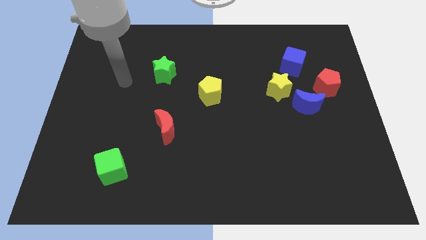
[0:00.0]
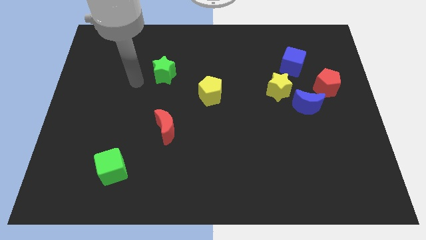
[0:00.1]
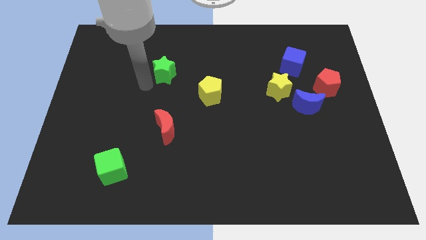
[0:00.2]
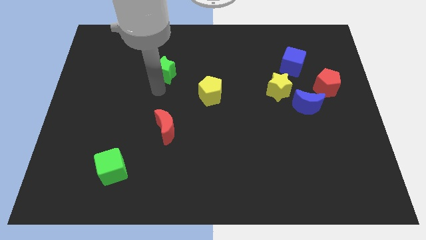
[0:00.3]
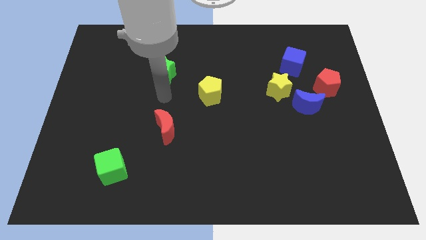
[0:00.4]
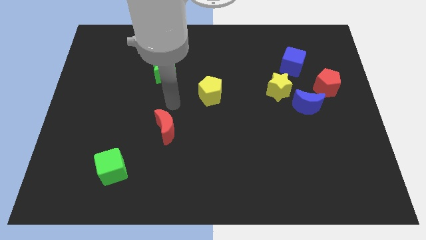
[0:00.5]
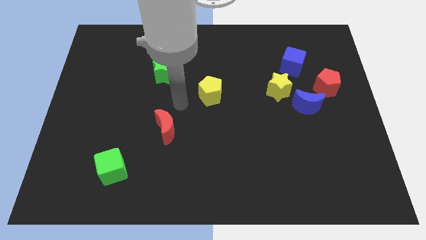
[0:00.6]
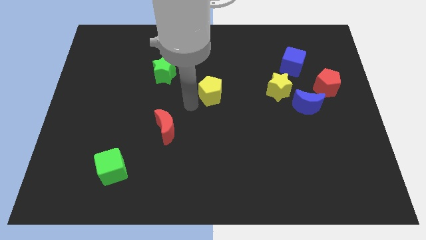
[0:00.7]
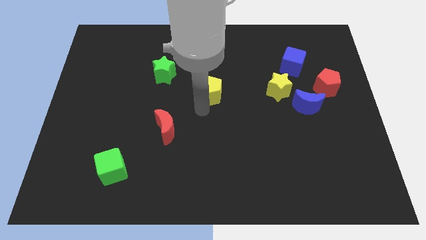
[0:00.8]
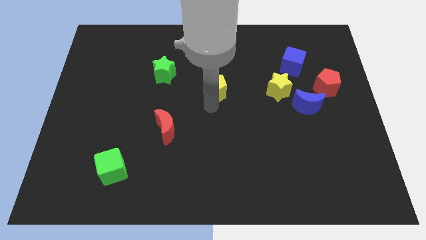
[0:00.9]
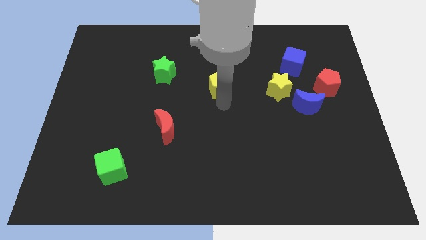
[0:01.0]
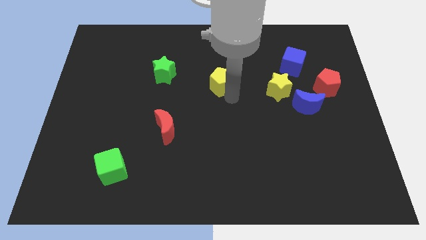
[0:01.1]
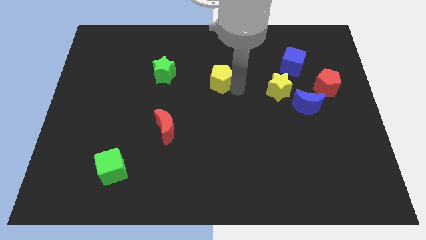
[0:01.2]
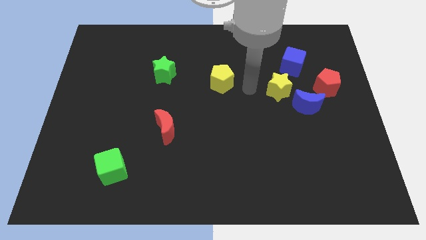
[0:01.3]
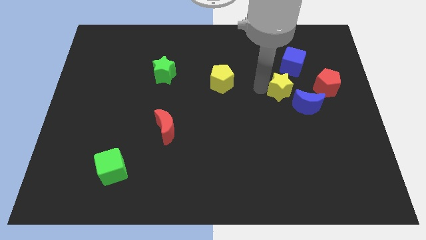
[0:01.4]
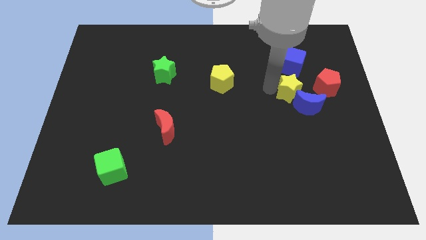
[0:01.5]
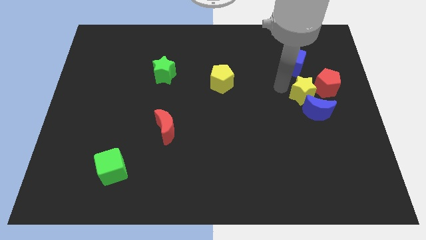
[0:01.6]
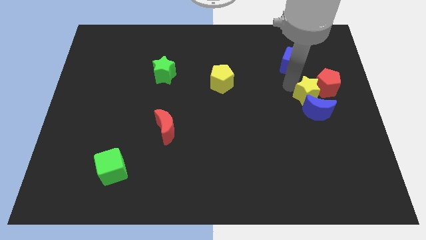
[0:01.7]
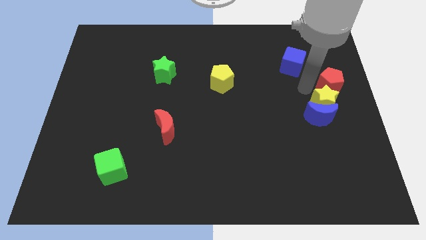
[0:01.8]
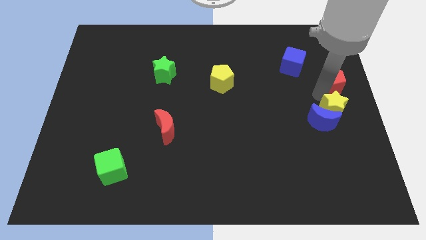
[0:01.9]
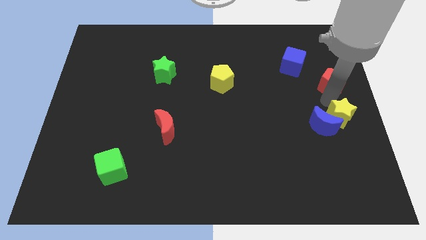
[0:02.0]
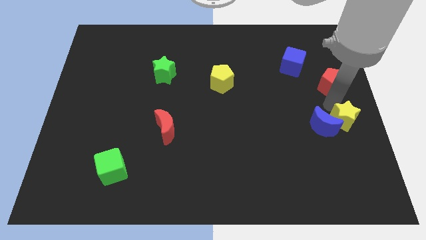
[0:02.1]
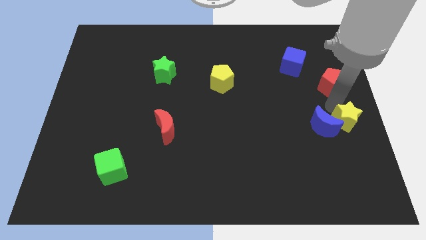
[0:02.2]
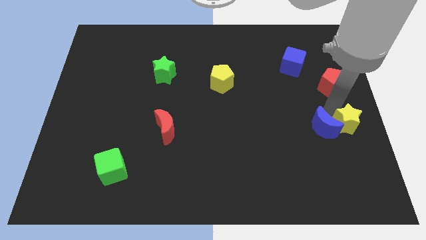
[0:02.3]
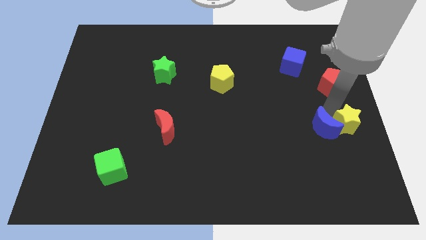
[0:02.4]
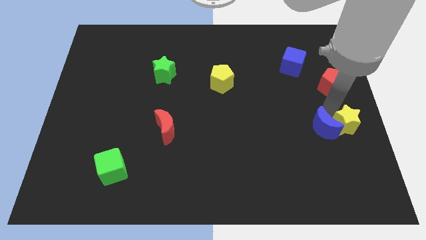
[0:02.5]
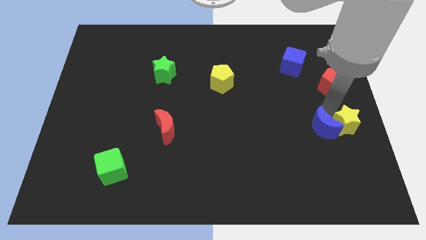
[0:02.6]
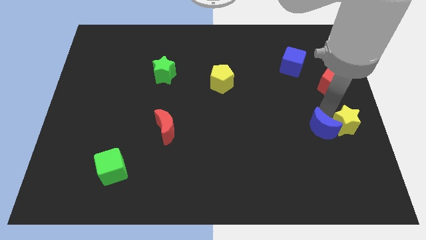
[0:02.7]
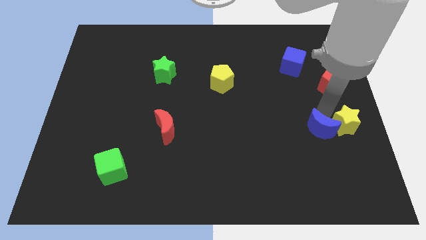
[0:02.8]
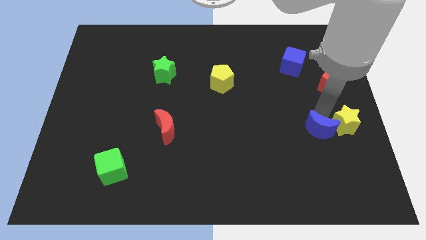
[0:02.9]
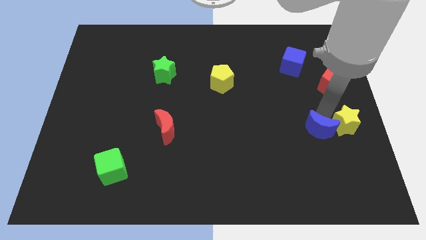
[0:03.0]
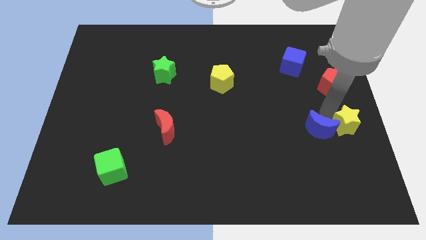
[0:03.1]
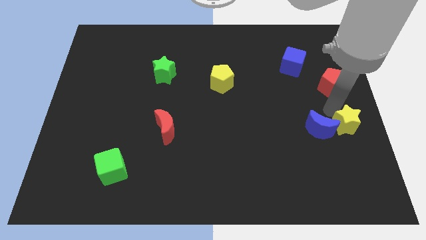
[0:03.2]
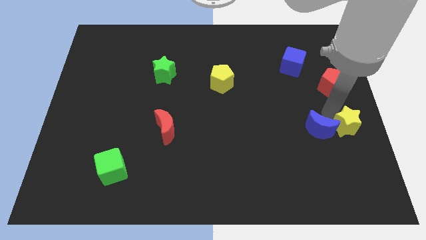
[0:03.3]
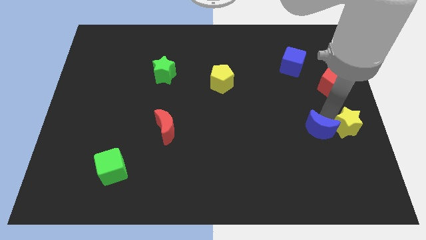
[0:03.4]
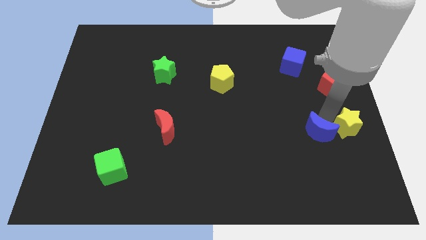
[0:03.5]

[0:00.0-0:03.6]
pull the blue moon apart from the yellow star and red pentagon

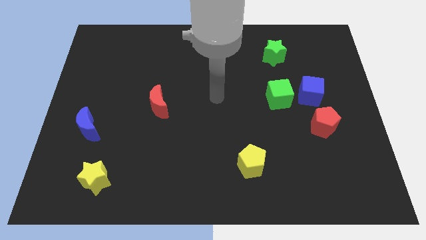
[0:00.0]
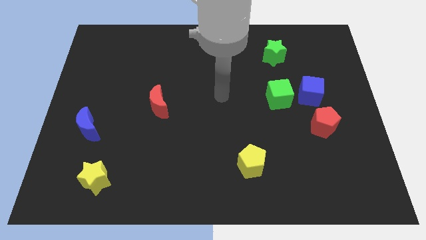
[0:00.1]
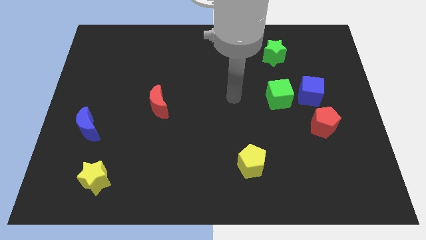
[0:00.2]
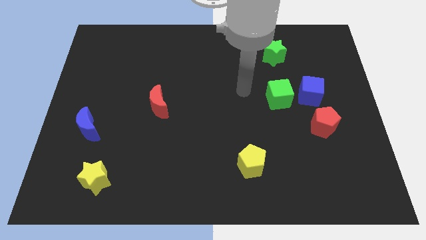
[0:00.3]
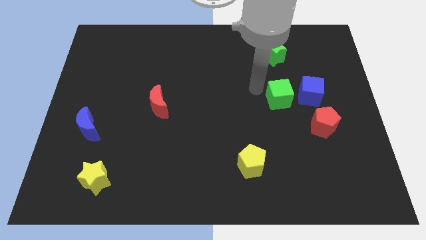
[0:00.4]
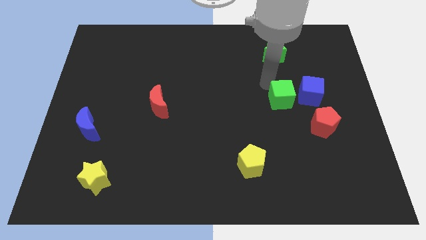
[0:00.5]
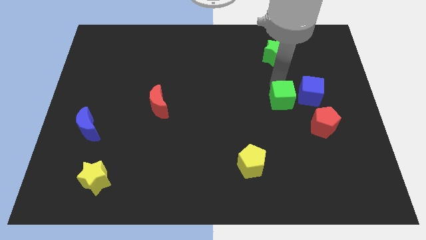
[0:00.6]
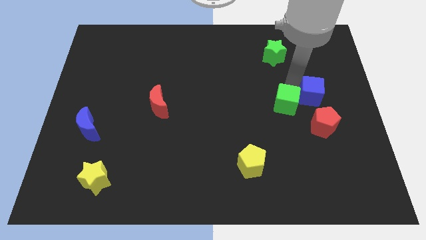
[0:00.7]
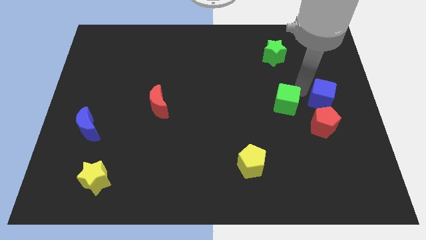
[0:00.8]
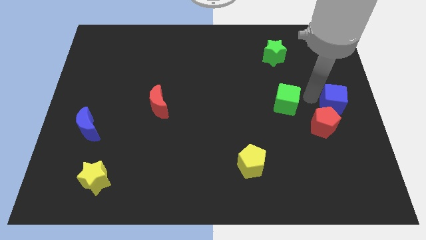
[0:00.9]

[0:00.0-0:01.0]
pull the green cube apart from the blue cube

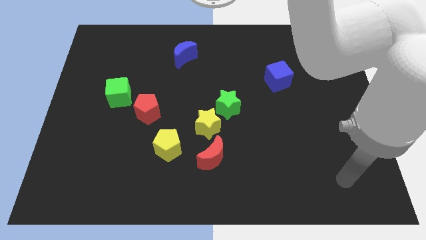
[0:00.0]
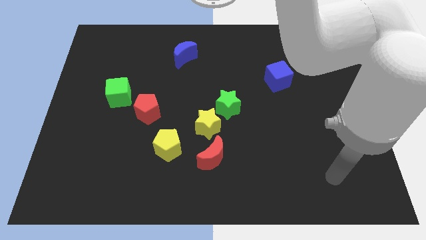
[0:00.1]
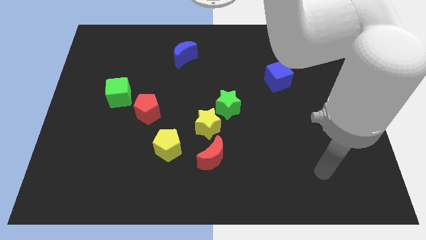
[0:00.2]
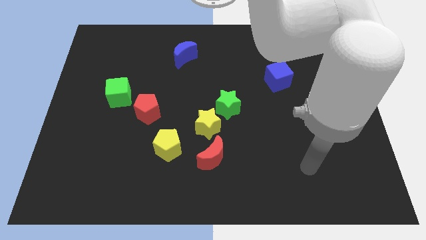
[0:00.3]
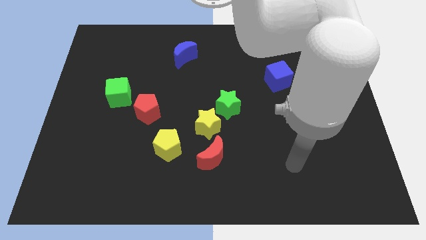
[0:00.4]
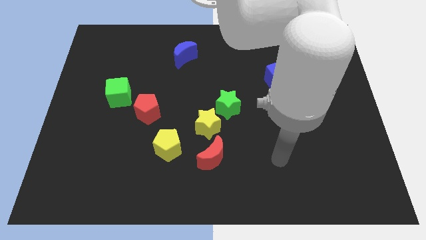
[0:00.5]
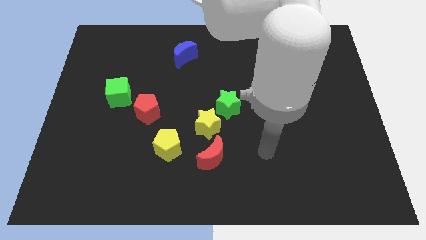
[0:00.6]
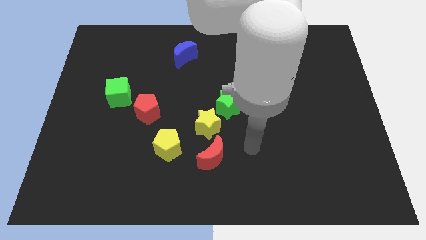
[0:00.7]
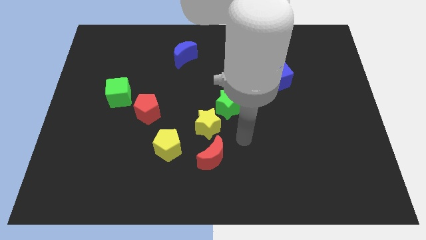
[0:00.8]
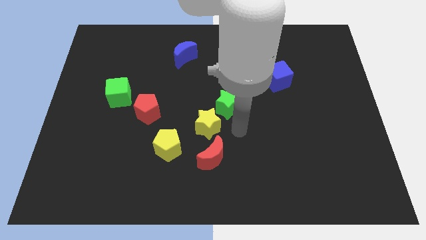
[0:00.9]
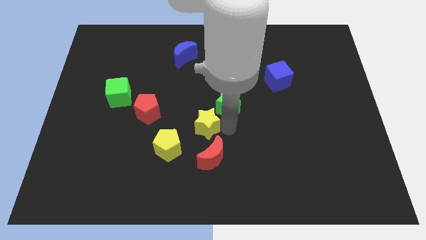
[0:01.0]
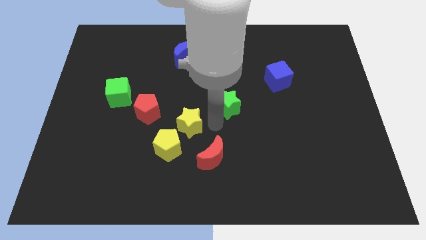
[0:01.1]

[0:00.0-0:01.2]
move the green star away from the yellow star

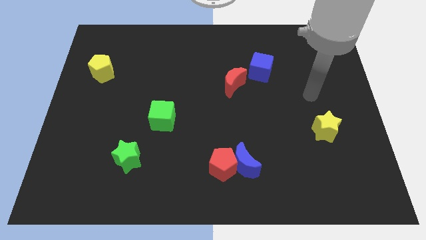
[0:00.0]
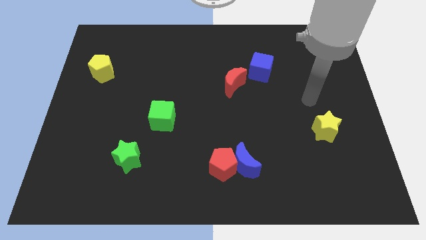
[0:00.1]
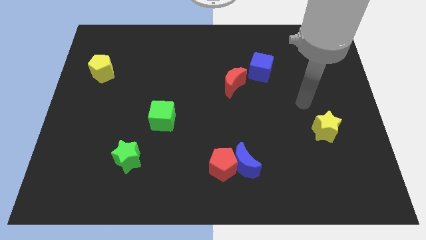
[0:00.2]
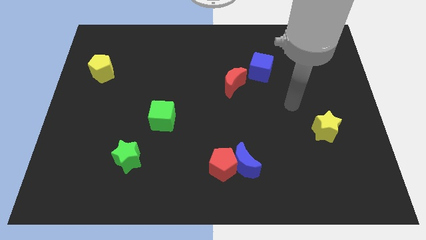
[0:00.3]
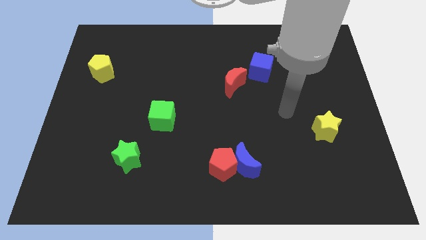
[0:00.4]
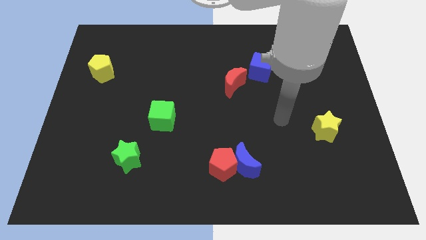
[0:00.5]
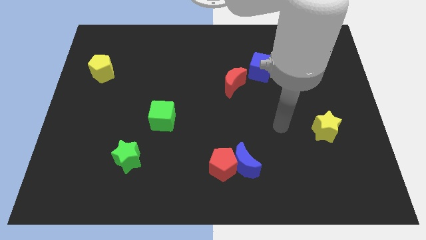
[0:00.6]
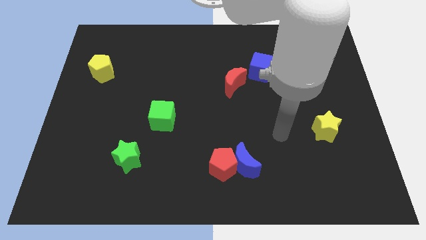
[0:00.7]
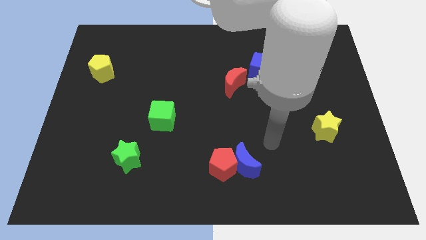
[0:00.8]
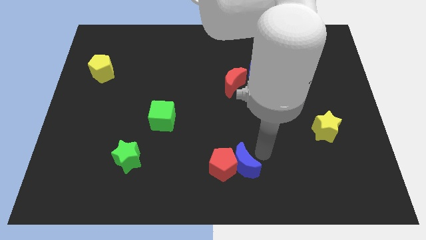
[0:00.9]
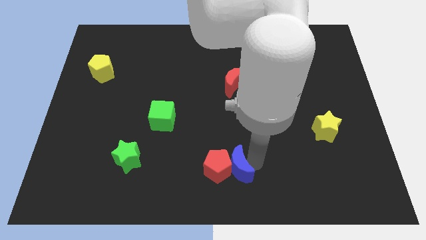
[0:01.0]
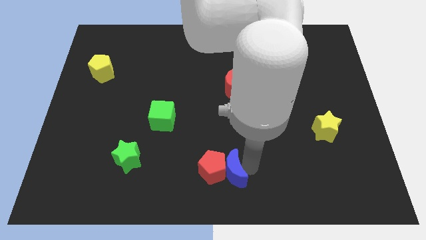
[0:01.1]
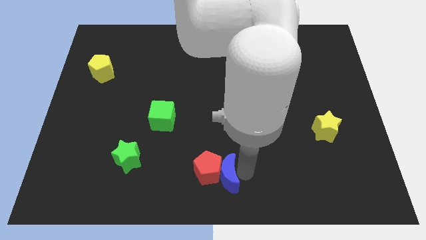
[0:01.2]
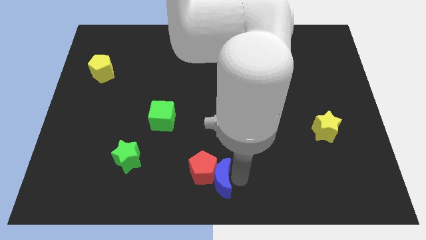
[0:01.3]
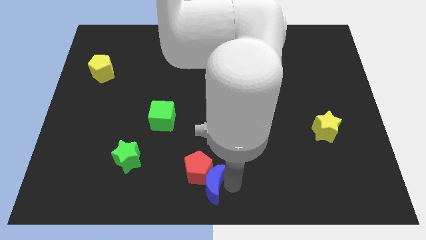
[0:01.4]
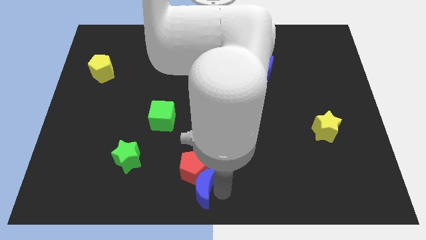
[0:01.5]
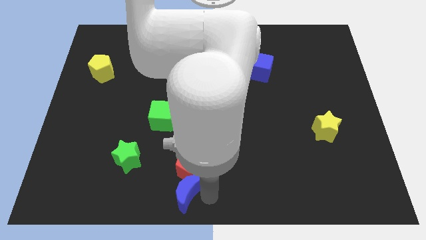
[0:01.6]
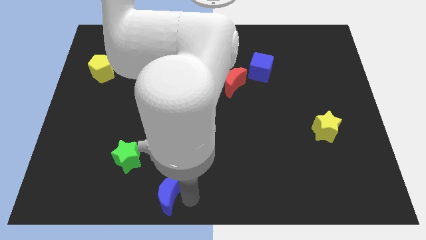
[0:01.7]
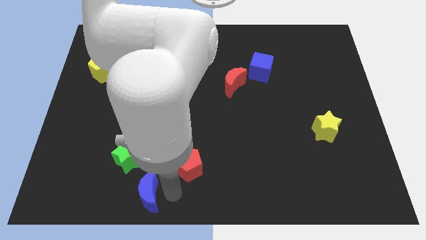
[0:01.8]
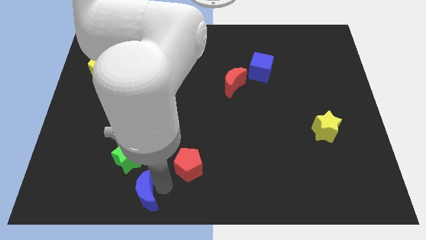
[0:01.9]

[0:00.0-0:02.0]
move the red pentagon away from the blue moon

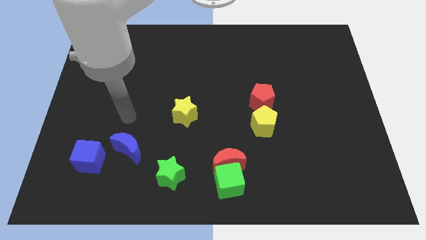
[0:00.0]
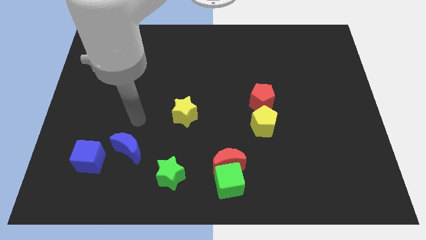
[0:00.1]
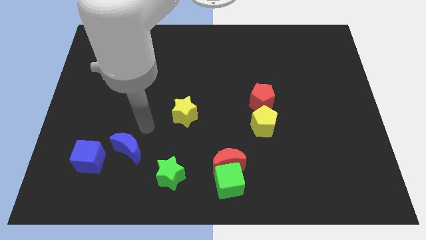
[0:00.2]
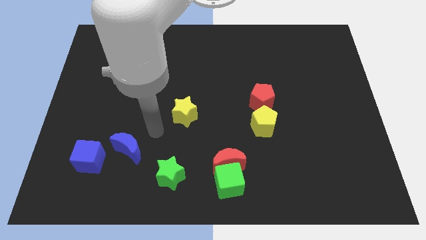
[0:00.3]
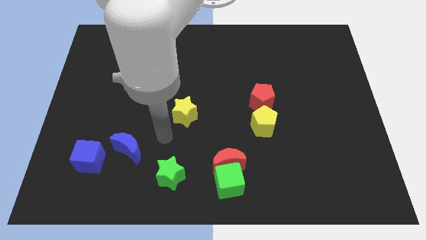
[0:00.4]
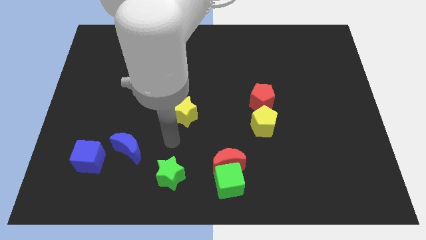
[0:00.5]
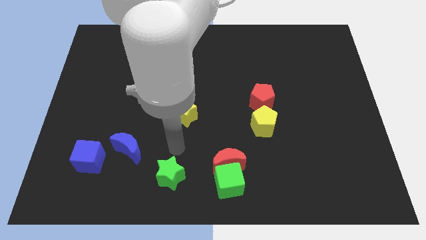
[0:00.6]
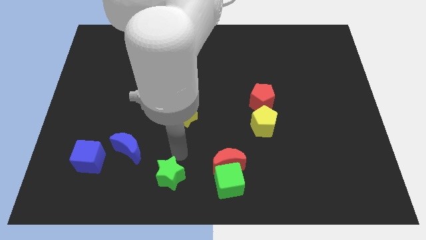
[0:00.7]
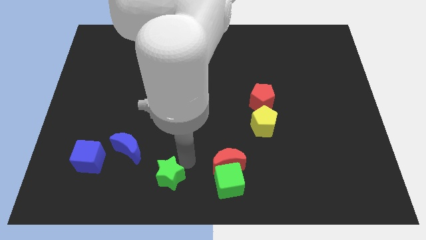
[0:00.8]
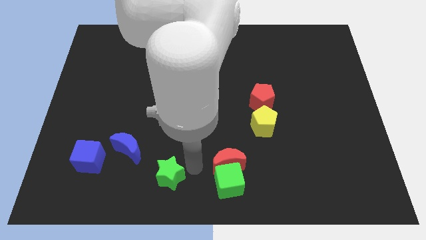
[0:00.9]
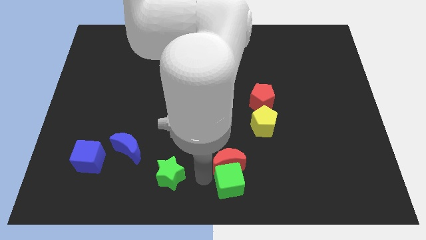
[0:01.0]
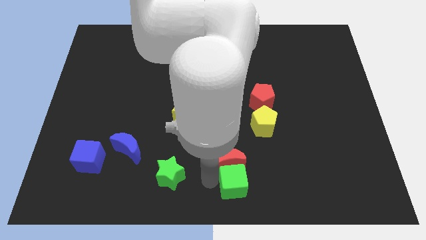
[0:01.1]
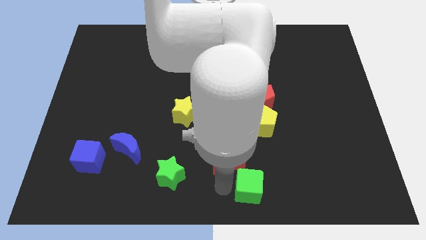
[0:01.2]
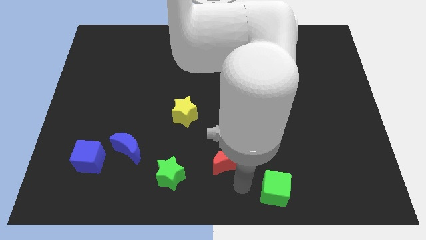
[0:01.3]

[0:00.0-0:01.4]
pull the red moon apart from the green cube

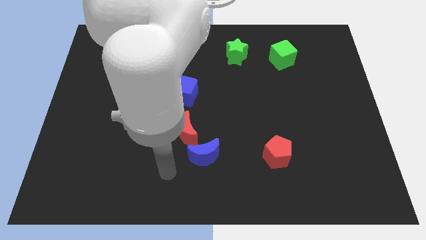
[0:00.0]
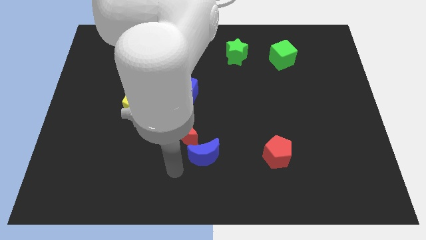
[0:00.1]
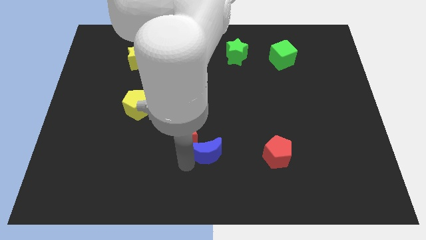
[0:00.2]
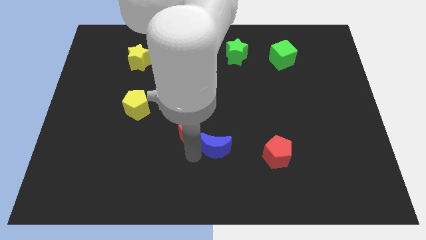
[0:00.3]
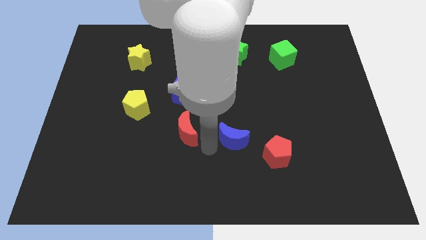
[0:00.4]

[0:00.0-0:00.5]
separate the red moon from the blue moon
